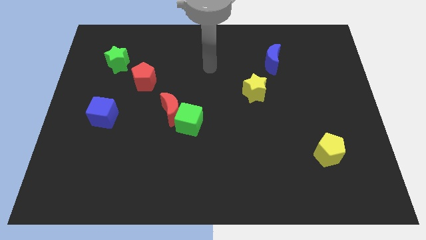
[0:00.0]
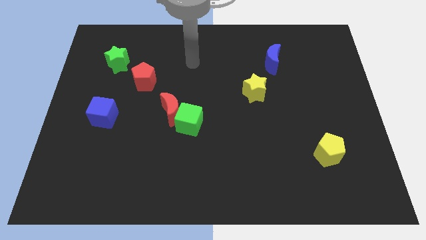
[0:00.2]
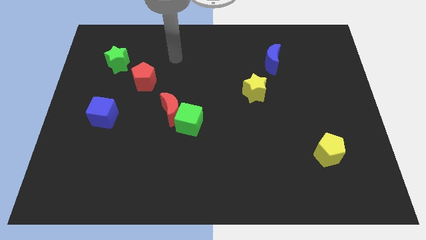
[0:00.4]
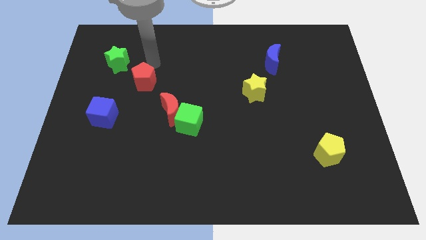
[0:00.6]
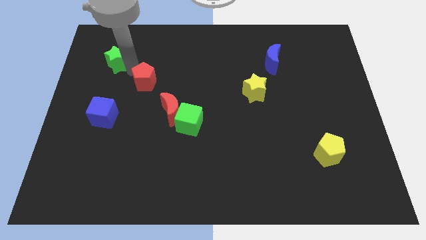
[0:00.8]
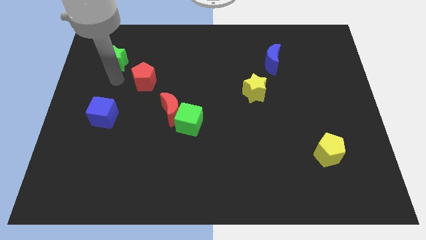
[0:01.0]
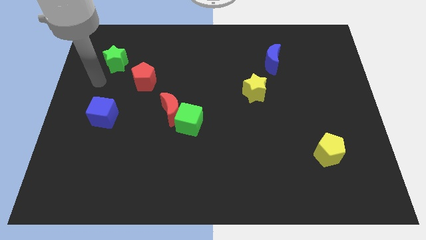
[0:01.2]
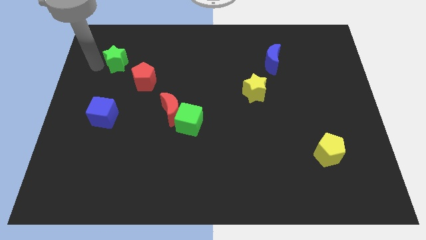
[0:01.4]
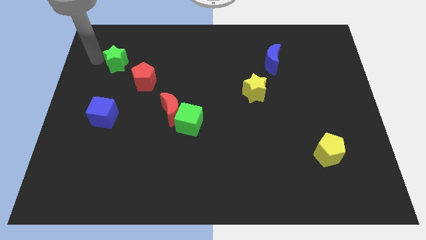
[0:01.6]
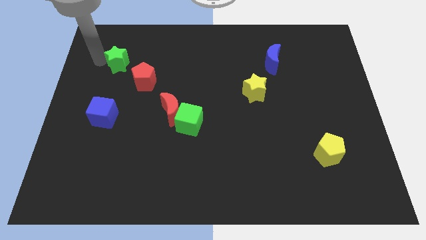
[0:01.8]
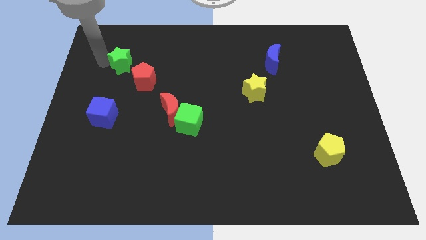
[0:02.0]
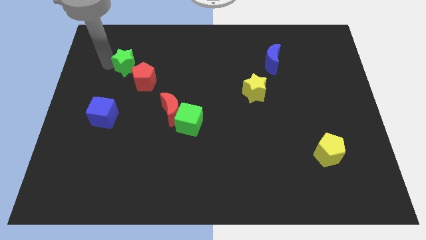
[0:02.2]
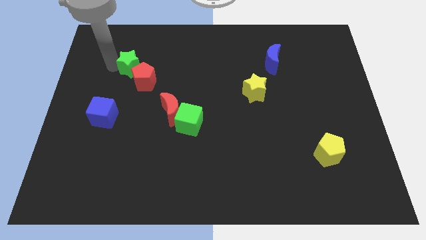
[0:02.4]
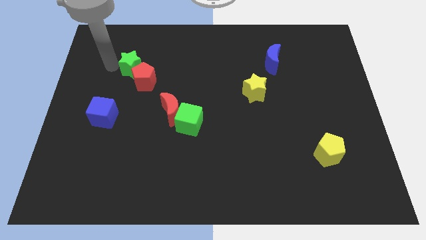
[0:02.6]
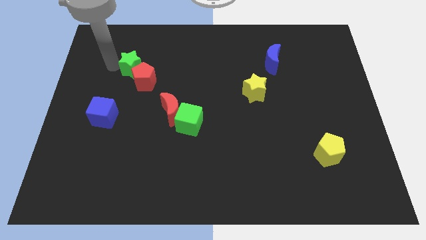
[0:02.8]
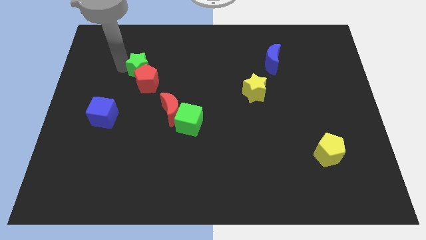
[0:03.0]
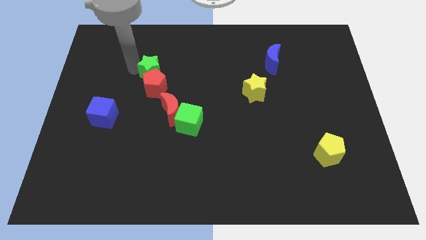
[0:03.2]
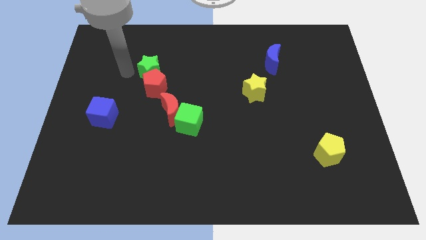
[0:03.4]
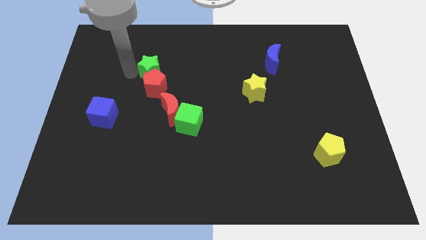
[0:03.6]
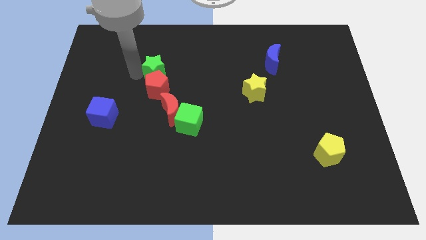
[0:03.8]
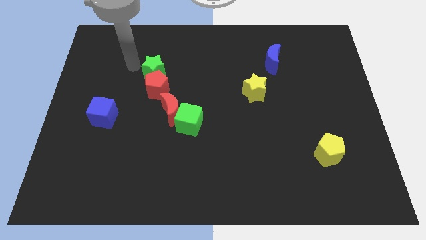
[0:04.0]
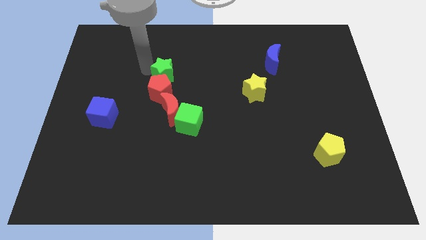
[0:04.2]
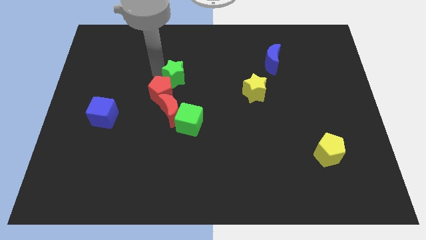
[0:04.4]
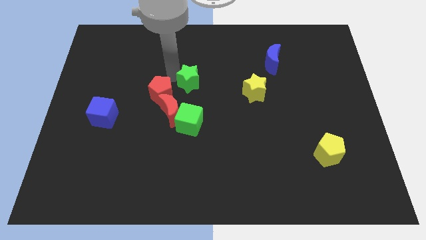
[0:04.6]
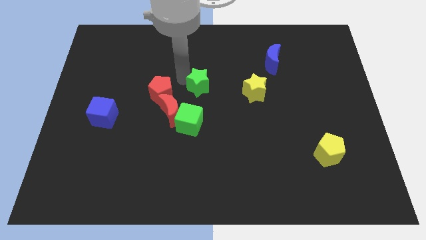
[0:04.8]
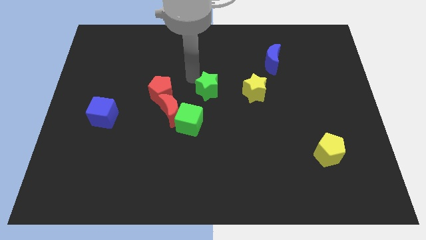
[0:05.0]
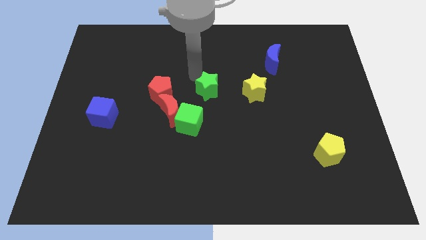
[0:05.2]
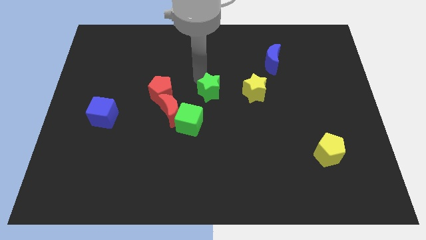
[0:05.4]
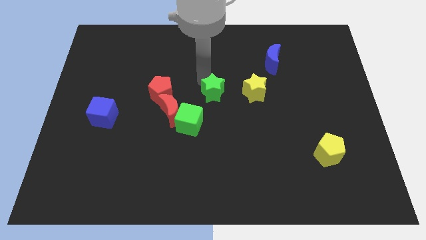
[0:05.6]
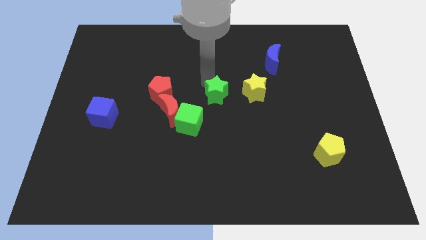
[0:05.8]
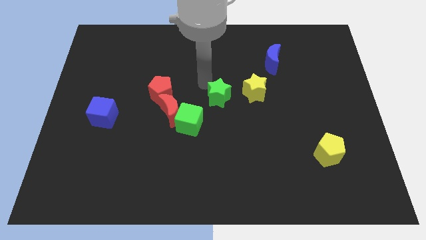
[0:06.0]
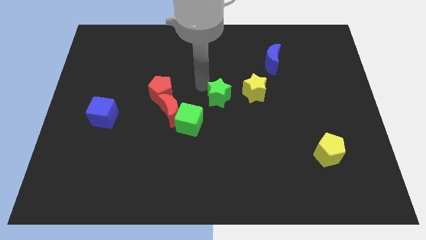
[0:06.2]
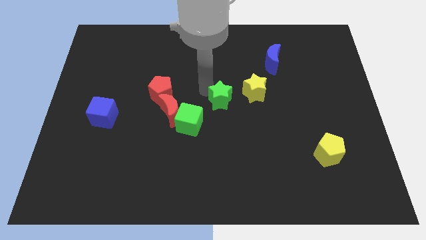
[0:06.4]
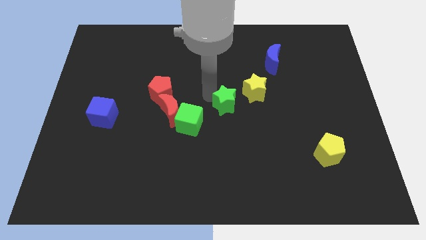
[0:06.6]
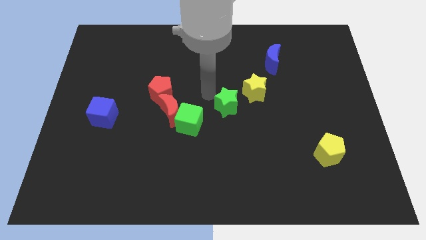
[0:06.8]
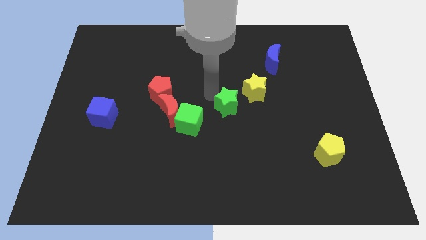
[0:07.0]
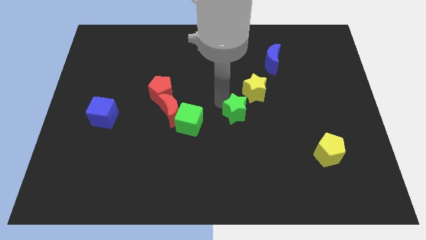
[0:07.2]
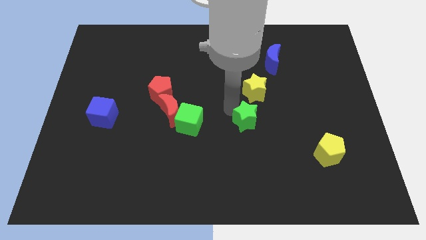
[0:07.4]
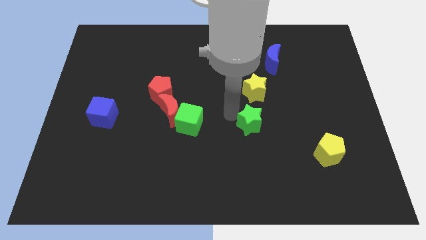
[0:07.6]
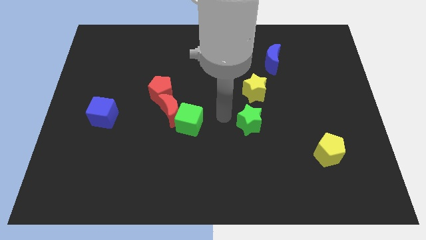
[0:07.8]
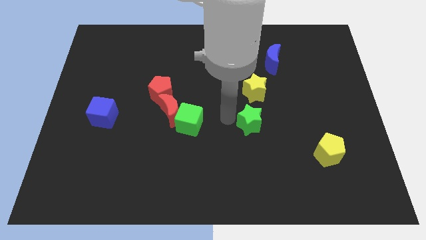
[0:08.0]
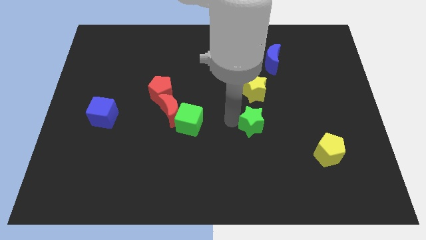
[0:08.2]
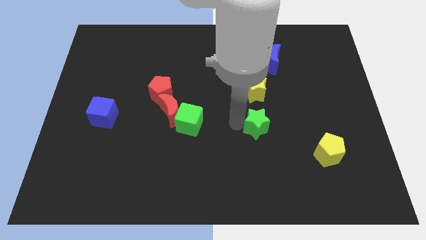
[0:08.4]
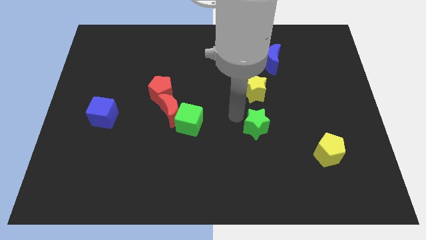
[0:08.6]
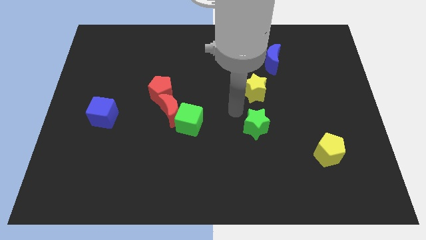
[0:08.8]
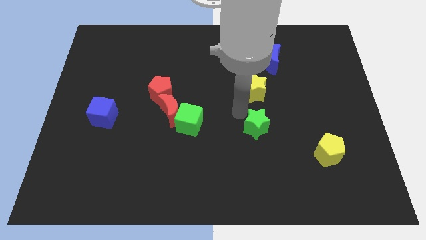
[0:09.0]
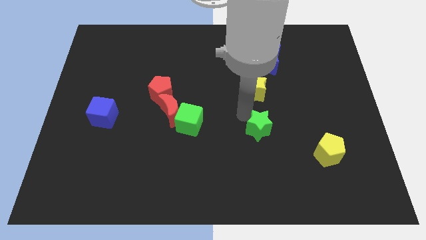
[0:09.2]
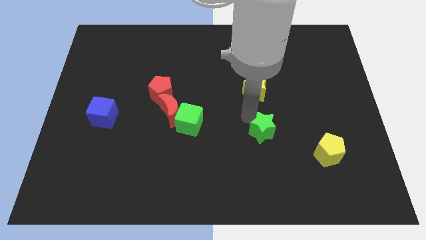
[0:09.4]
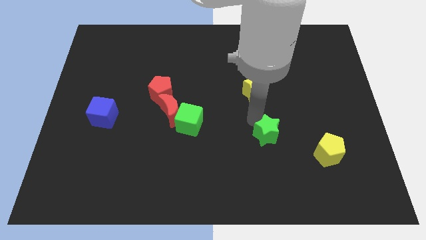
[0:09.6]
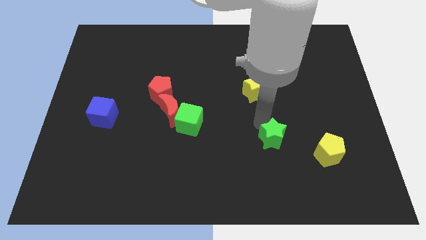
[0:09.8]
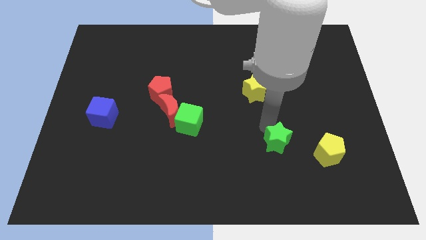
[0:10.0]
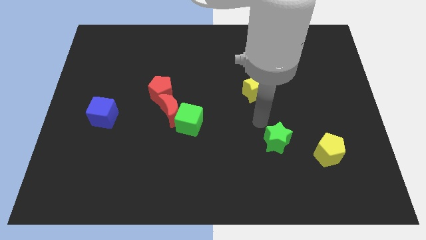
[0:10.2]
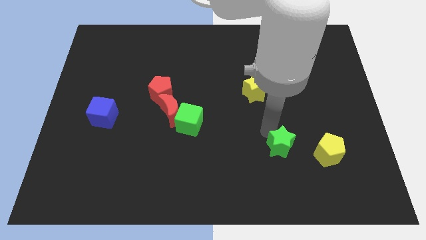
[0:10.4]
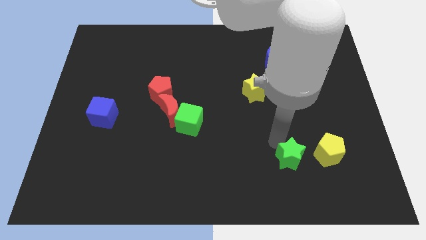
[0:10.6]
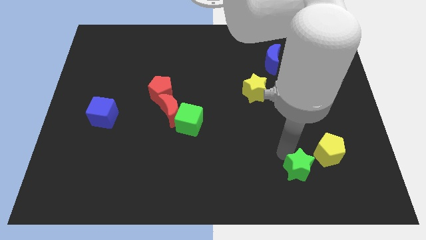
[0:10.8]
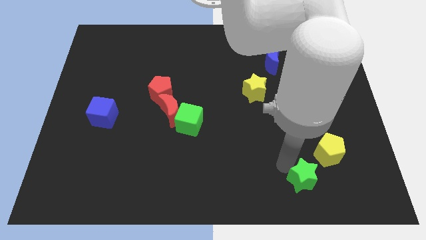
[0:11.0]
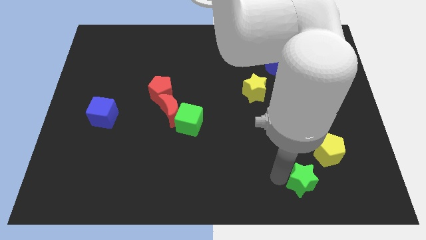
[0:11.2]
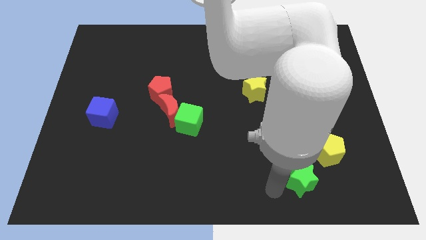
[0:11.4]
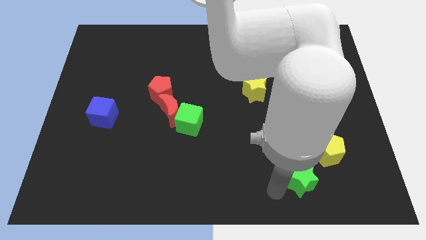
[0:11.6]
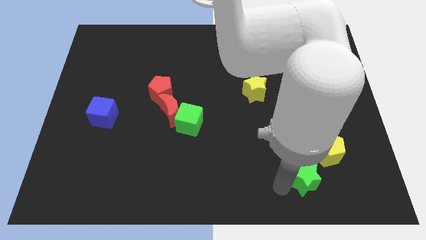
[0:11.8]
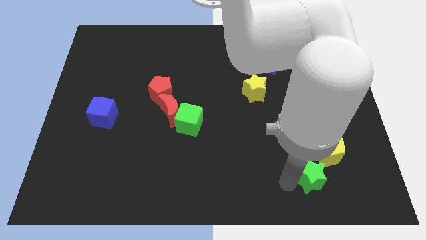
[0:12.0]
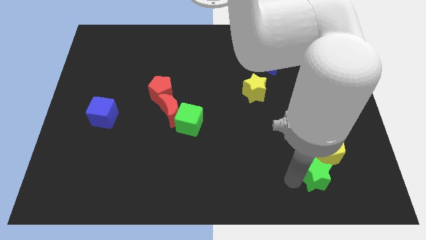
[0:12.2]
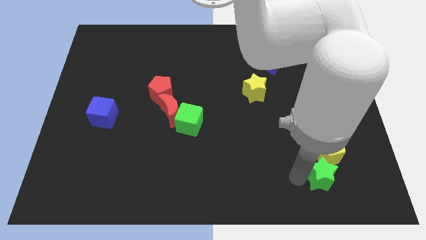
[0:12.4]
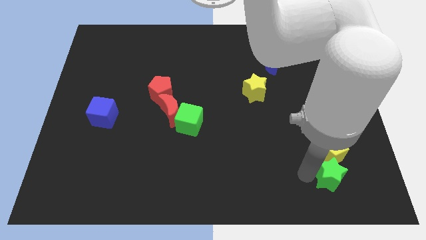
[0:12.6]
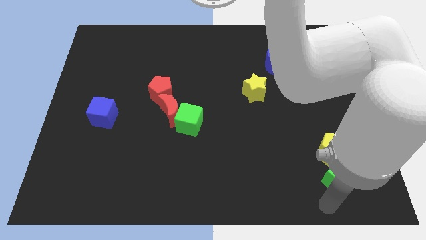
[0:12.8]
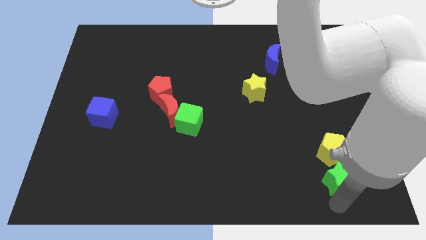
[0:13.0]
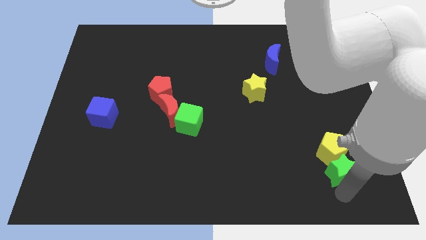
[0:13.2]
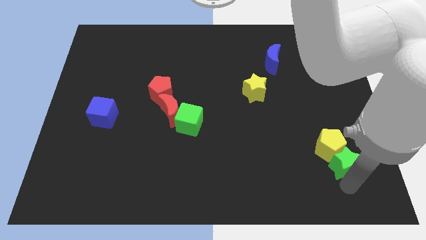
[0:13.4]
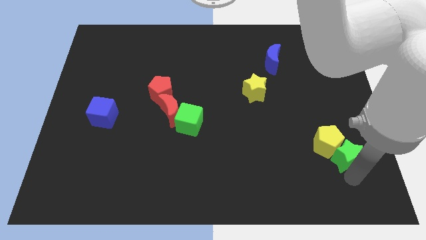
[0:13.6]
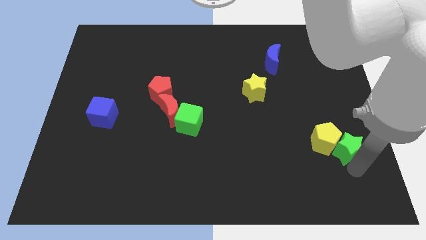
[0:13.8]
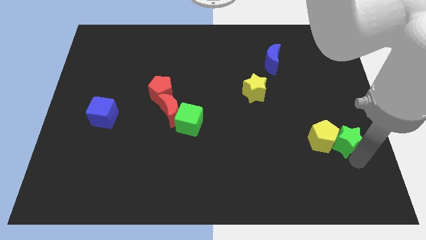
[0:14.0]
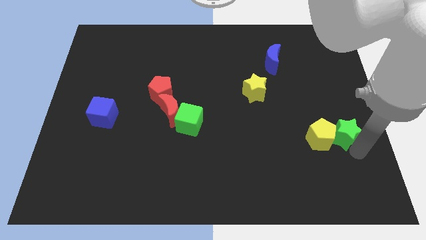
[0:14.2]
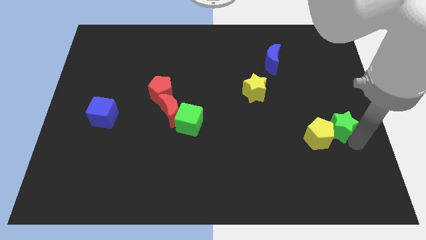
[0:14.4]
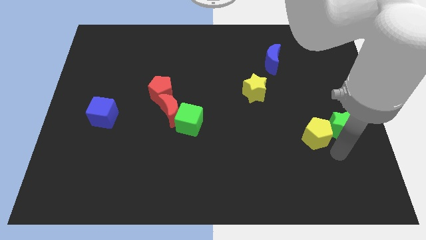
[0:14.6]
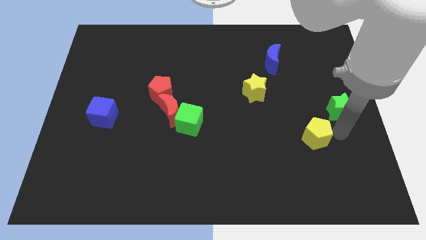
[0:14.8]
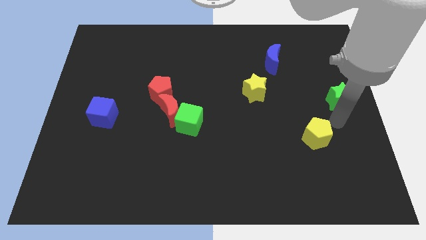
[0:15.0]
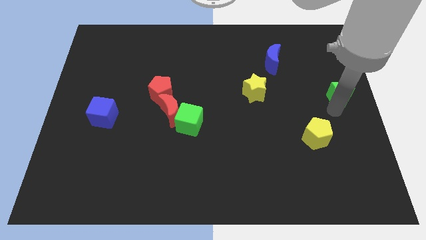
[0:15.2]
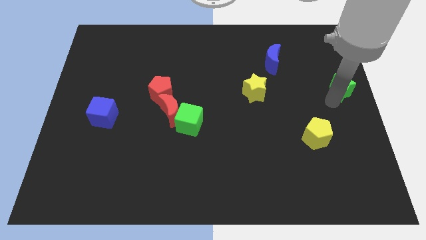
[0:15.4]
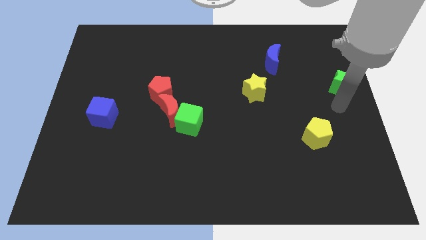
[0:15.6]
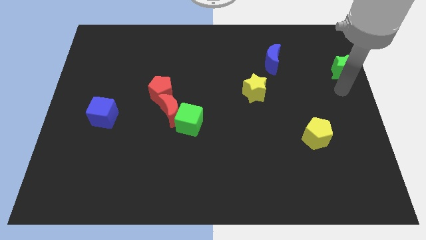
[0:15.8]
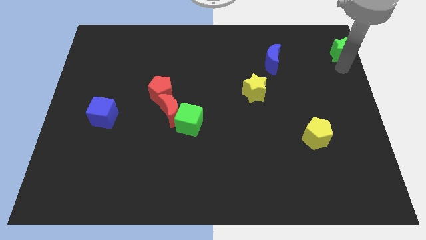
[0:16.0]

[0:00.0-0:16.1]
move the green star to the upper right corner
